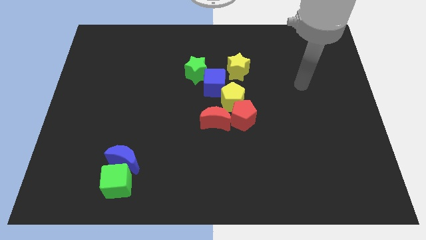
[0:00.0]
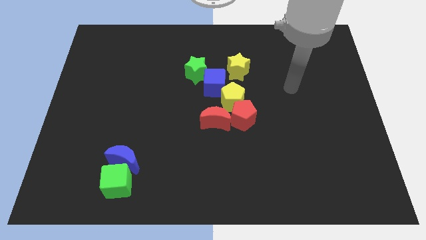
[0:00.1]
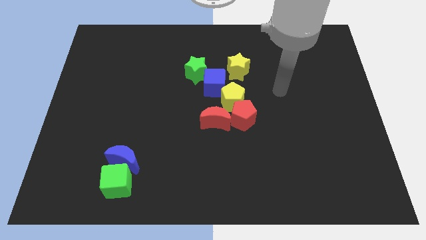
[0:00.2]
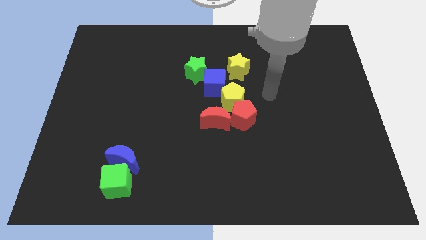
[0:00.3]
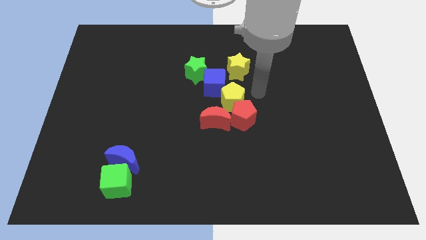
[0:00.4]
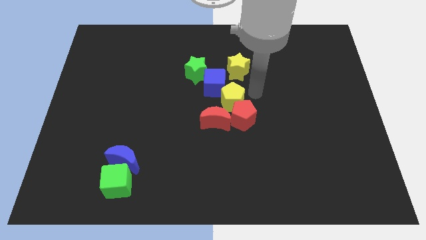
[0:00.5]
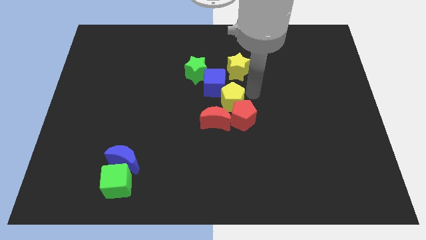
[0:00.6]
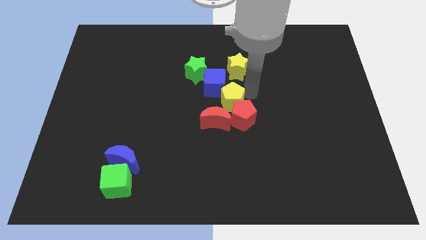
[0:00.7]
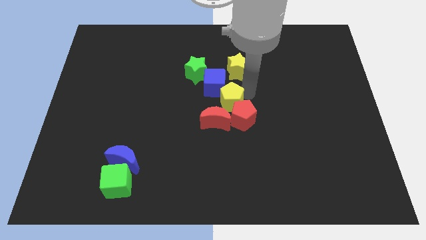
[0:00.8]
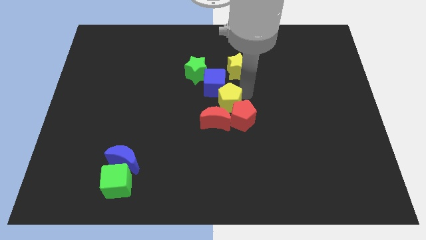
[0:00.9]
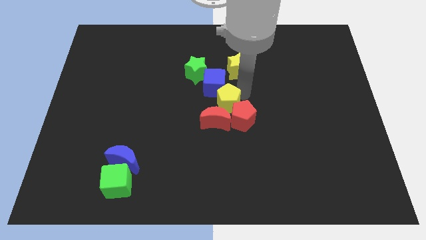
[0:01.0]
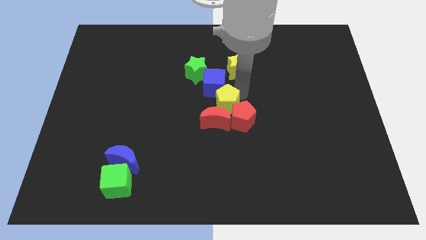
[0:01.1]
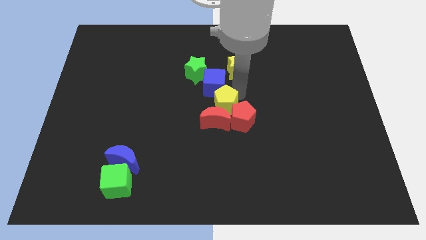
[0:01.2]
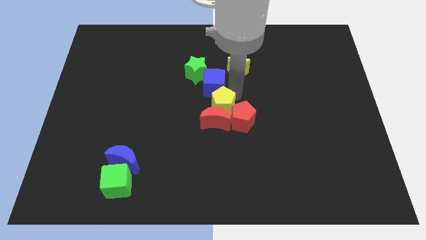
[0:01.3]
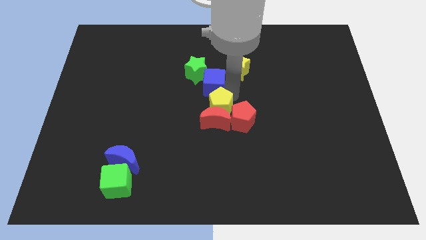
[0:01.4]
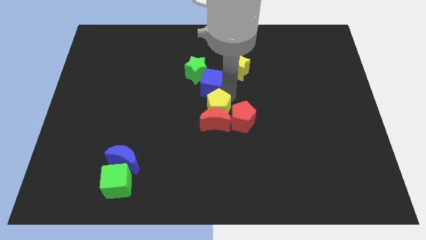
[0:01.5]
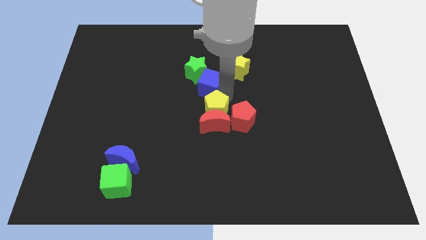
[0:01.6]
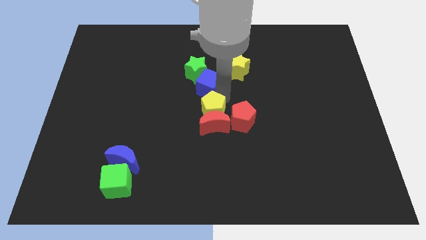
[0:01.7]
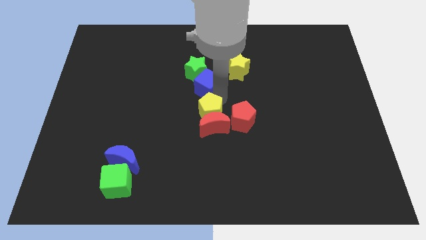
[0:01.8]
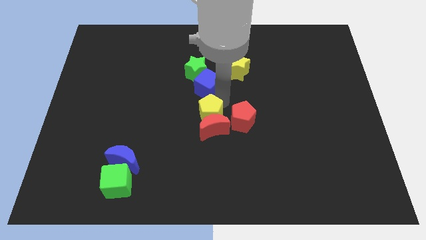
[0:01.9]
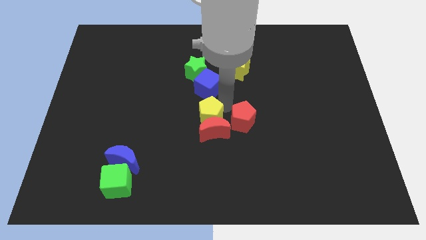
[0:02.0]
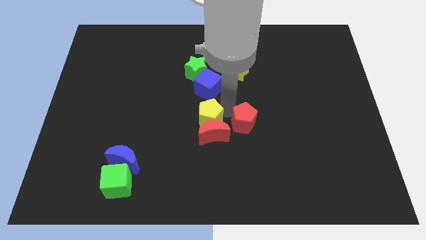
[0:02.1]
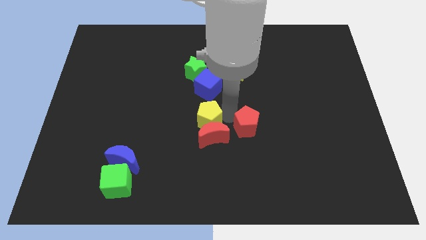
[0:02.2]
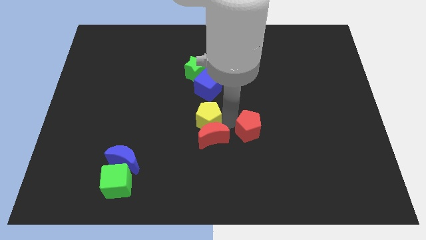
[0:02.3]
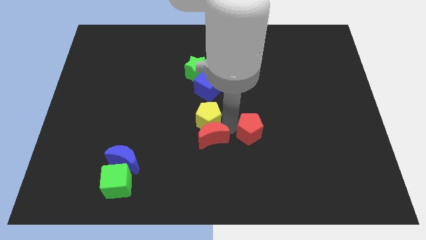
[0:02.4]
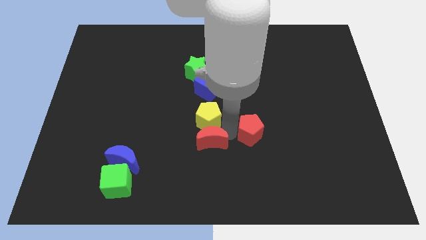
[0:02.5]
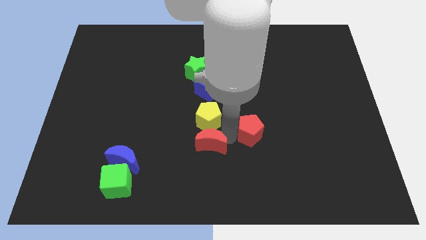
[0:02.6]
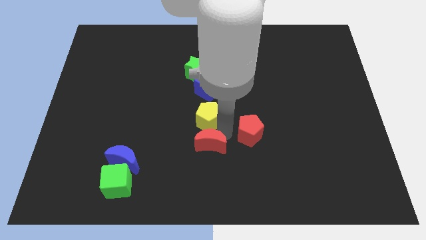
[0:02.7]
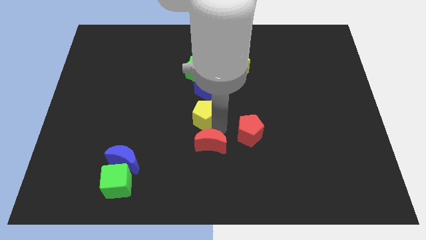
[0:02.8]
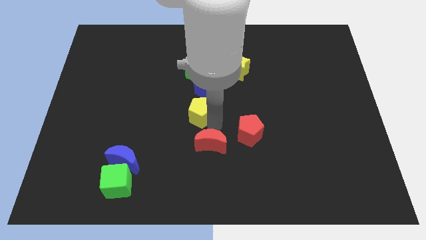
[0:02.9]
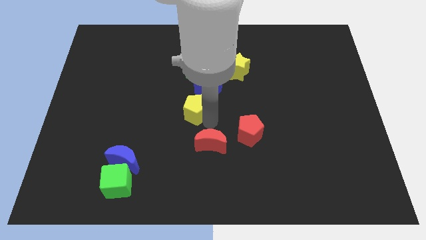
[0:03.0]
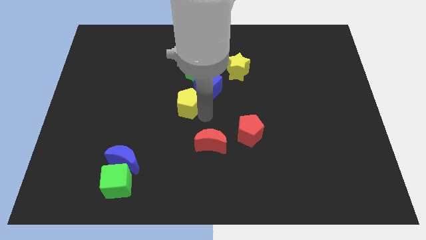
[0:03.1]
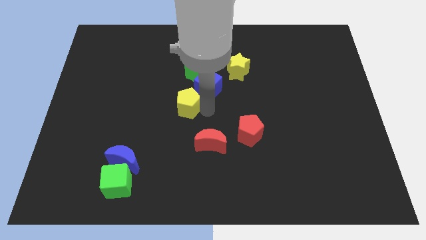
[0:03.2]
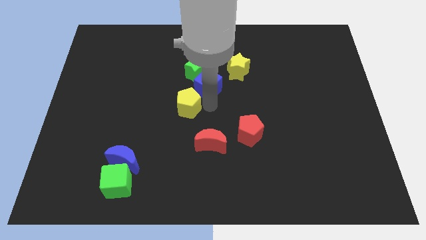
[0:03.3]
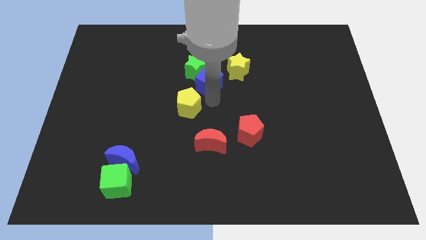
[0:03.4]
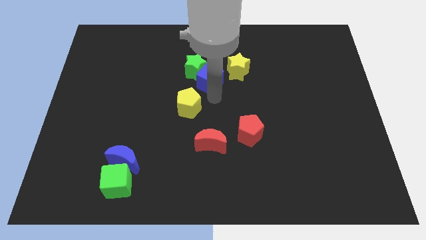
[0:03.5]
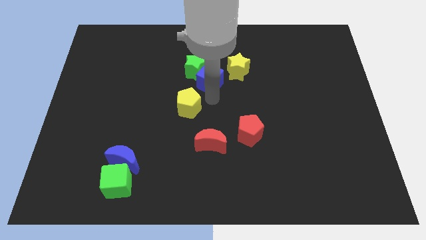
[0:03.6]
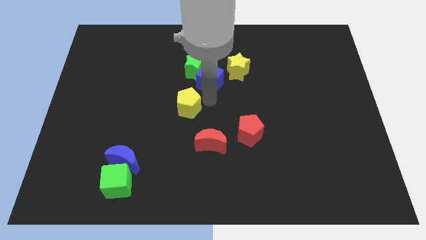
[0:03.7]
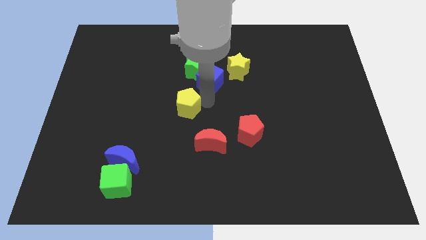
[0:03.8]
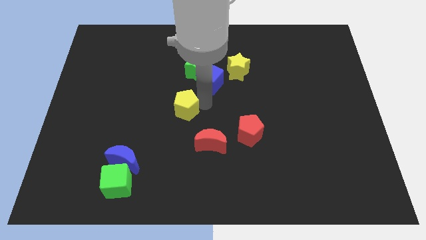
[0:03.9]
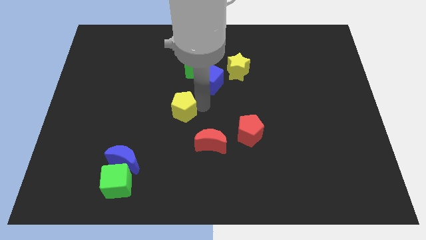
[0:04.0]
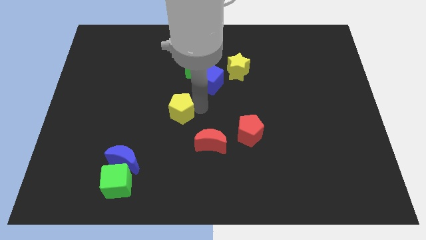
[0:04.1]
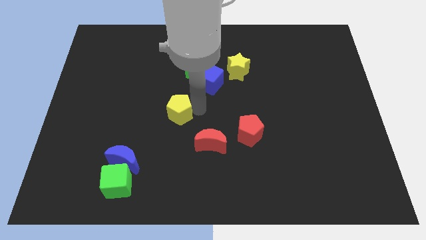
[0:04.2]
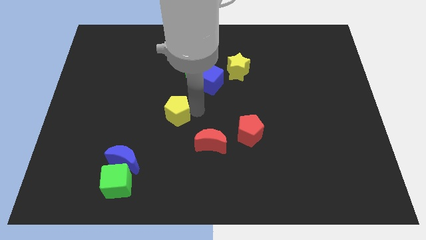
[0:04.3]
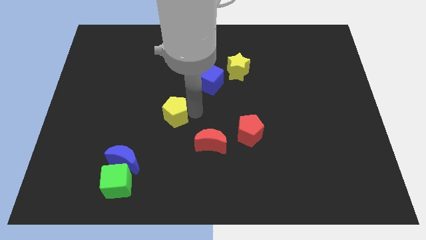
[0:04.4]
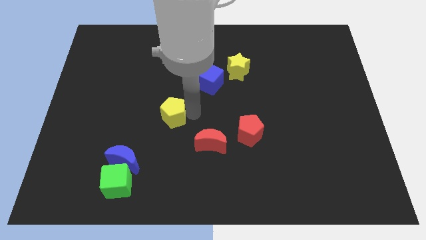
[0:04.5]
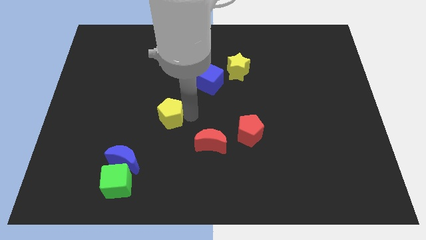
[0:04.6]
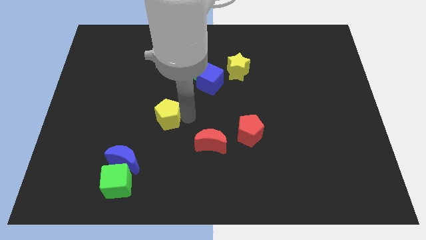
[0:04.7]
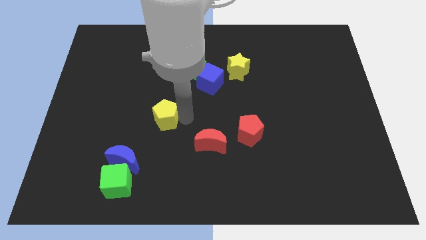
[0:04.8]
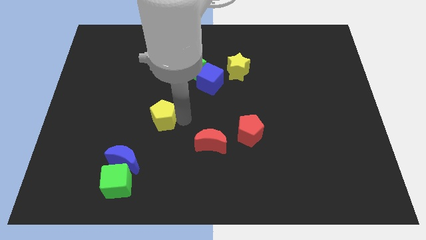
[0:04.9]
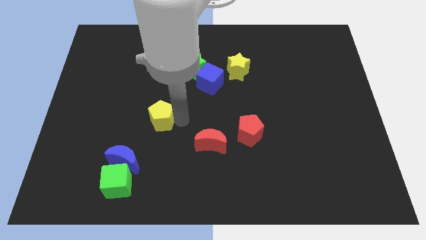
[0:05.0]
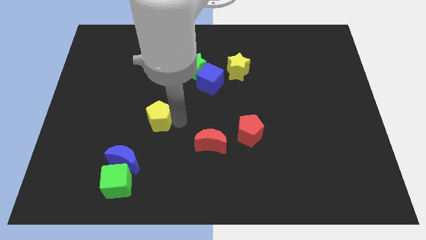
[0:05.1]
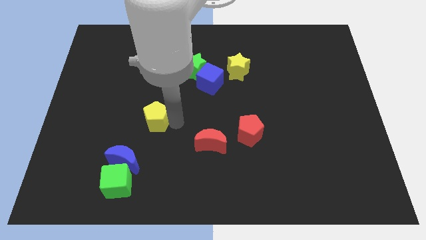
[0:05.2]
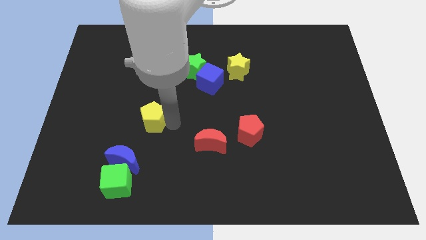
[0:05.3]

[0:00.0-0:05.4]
push the yellow pentagon to the top side of the blue moon

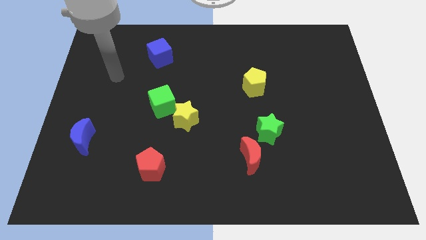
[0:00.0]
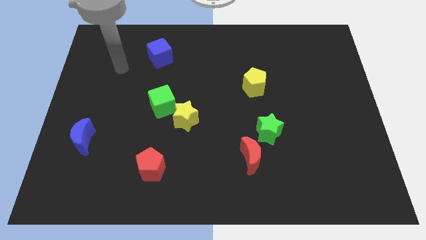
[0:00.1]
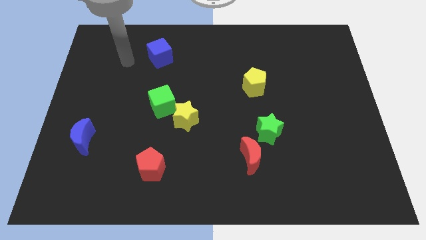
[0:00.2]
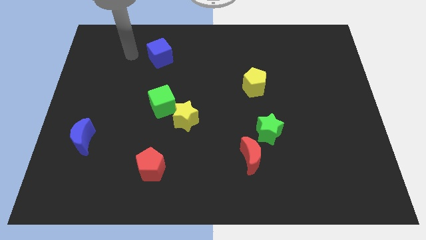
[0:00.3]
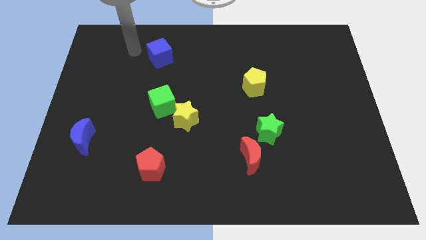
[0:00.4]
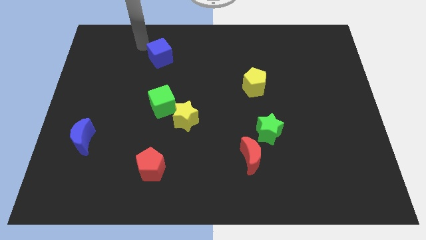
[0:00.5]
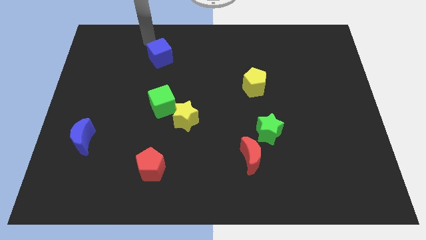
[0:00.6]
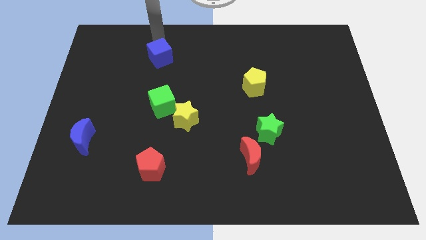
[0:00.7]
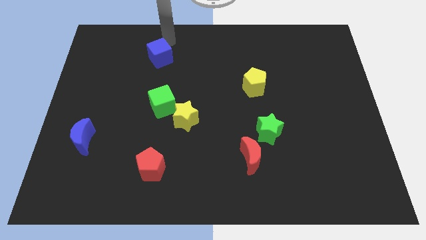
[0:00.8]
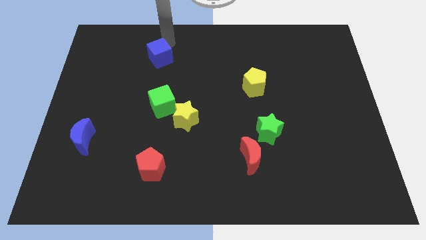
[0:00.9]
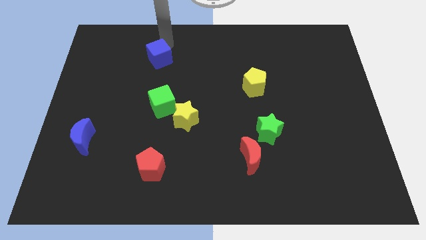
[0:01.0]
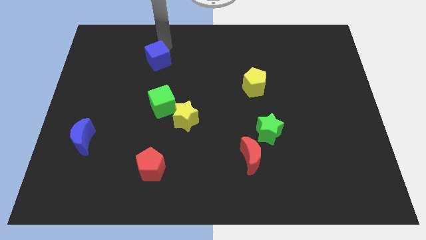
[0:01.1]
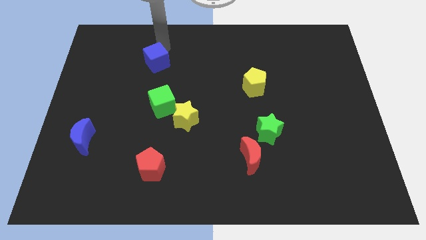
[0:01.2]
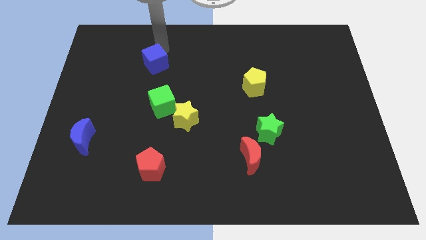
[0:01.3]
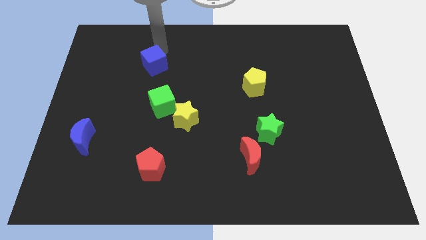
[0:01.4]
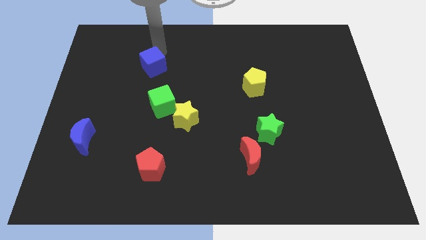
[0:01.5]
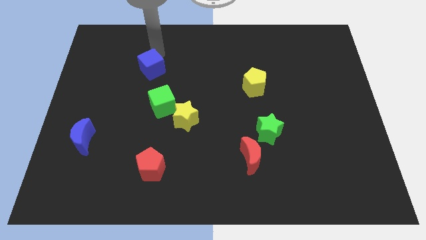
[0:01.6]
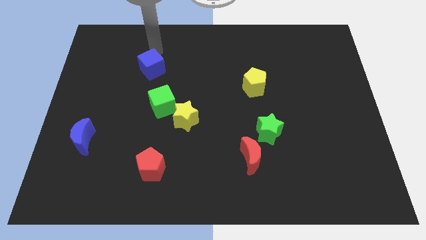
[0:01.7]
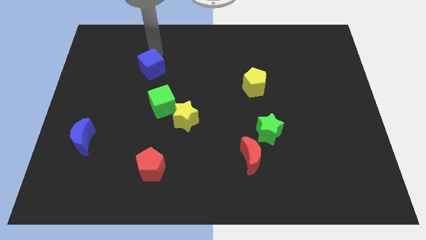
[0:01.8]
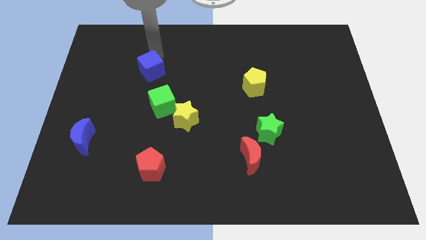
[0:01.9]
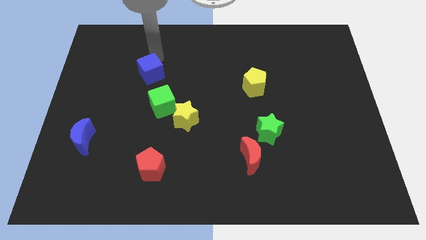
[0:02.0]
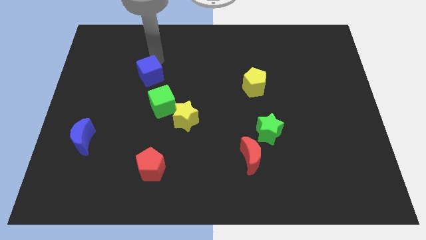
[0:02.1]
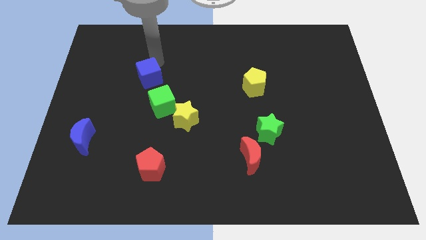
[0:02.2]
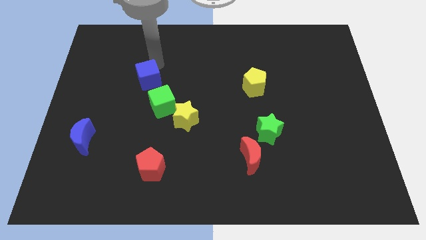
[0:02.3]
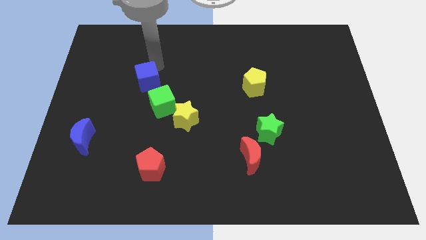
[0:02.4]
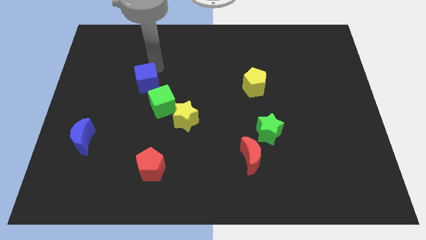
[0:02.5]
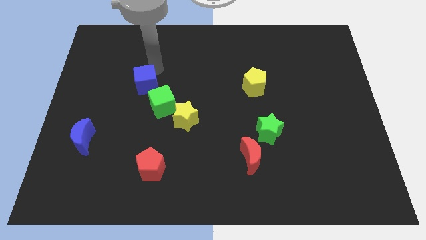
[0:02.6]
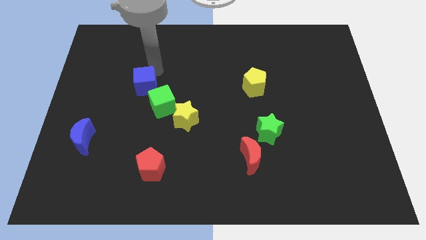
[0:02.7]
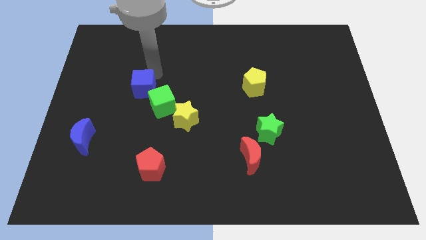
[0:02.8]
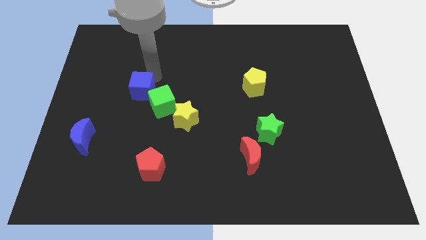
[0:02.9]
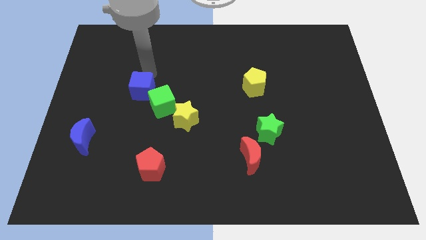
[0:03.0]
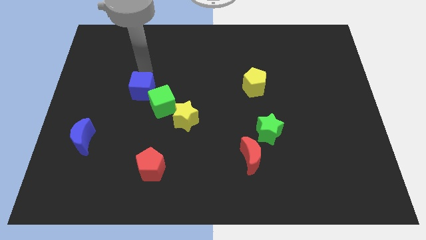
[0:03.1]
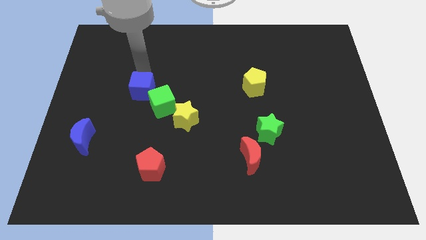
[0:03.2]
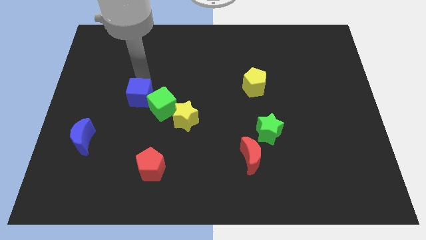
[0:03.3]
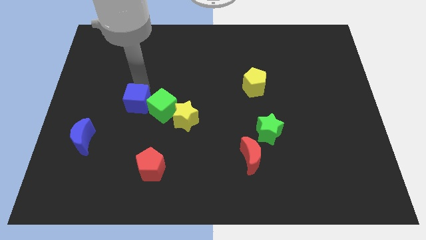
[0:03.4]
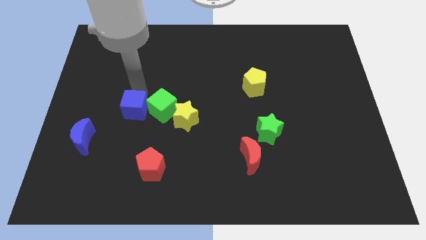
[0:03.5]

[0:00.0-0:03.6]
move the blue cube to the left of the yellow star
